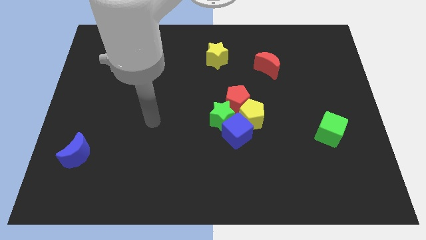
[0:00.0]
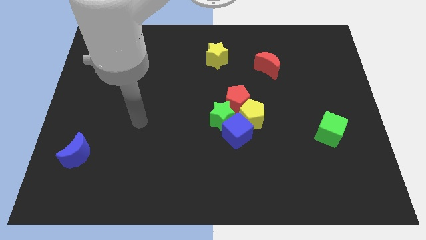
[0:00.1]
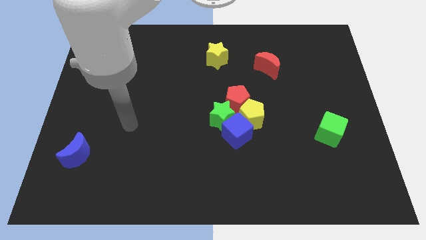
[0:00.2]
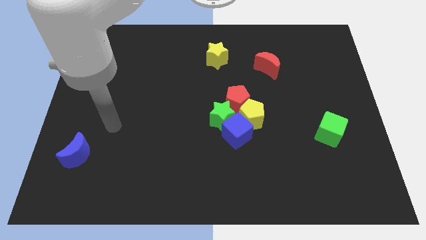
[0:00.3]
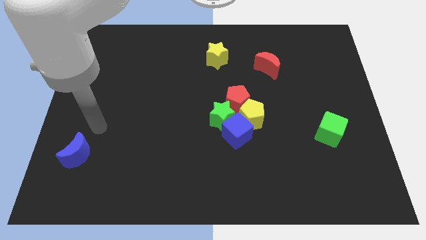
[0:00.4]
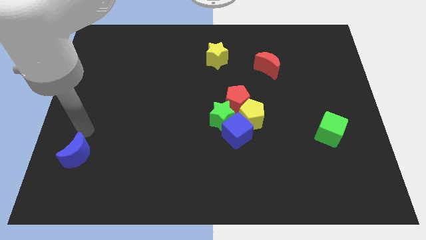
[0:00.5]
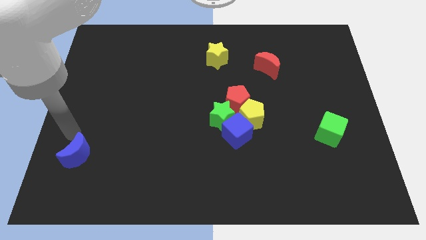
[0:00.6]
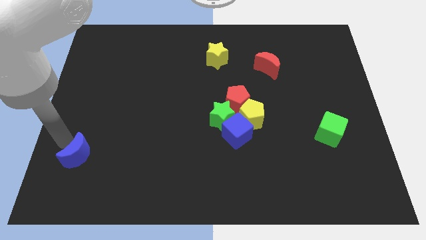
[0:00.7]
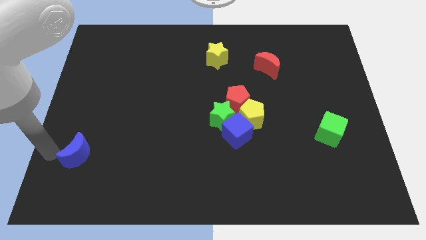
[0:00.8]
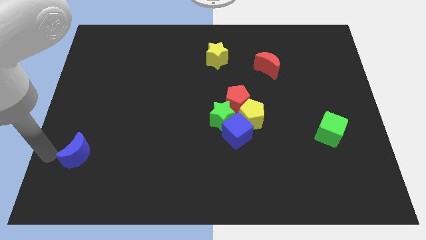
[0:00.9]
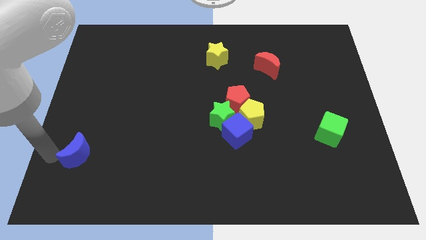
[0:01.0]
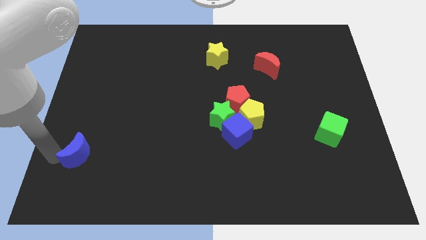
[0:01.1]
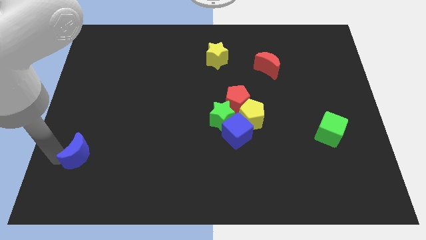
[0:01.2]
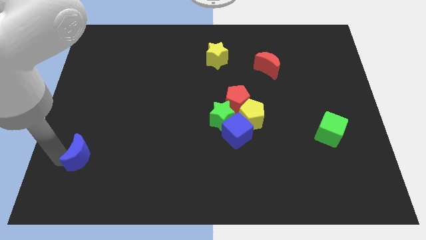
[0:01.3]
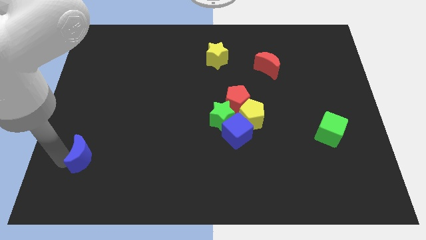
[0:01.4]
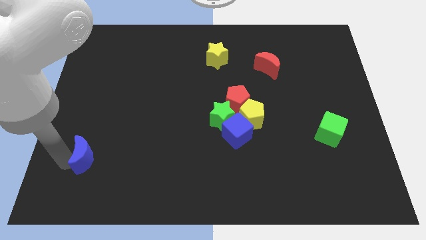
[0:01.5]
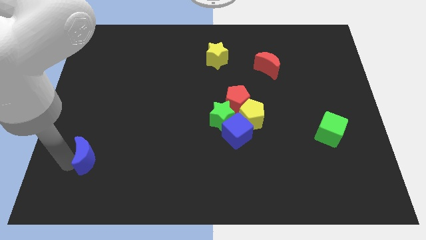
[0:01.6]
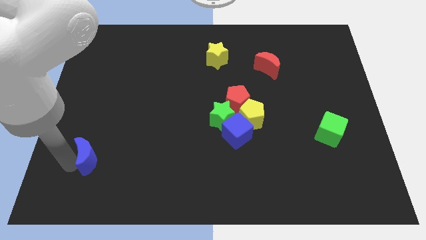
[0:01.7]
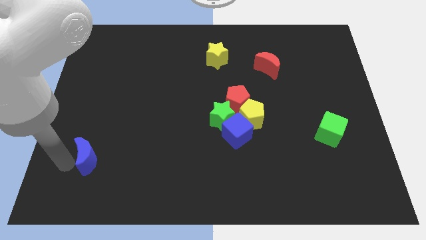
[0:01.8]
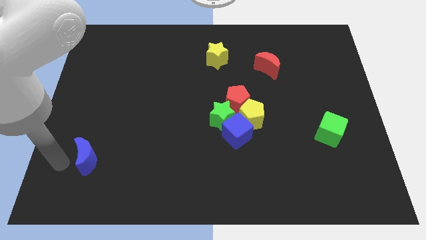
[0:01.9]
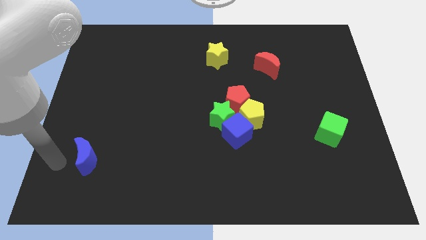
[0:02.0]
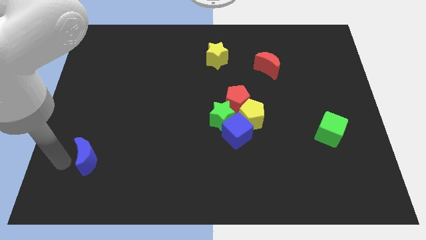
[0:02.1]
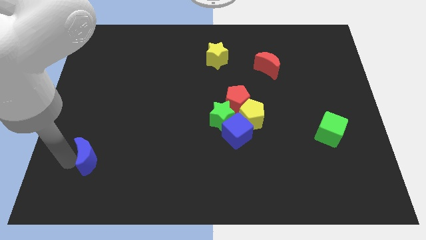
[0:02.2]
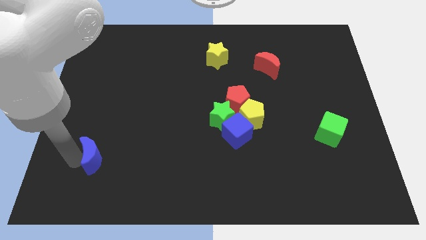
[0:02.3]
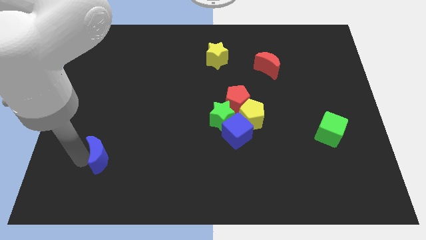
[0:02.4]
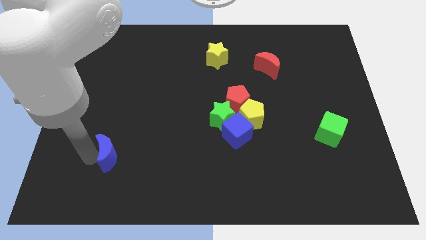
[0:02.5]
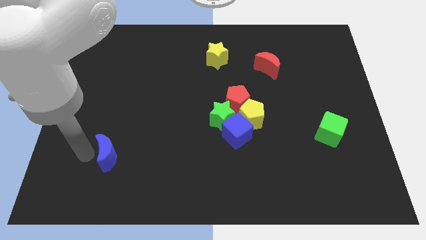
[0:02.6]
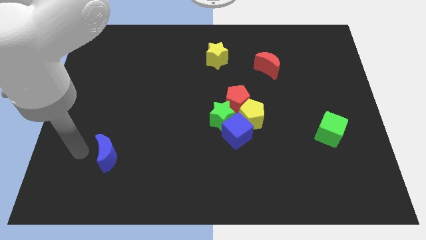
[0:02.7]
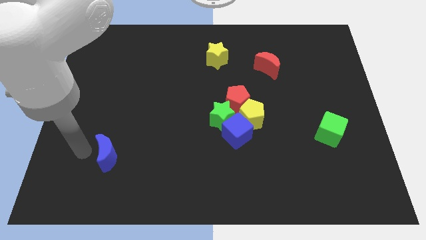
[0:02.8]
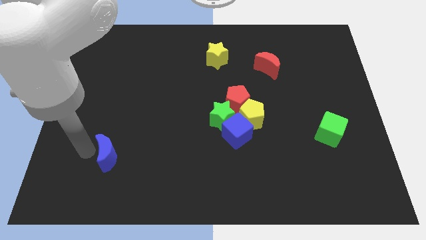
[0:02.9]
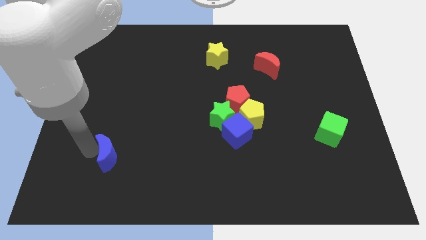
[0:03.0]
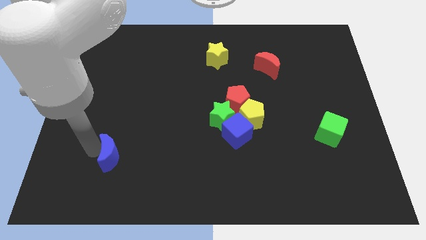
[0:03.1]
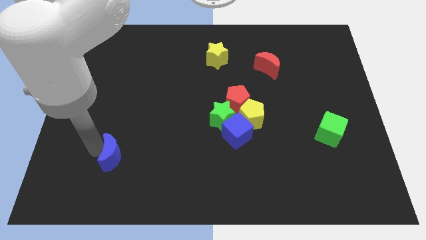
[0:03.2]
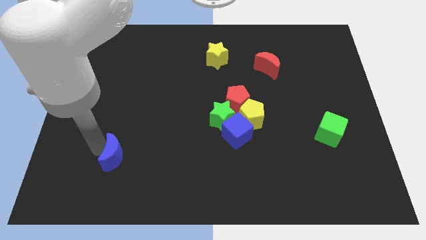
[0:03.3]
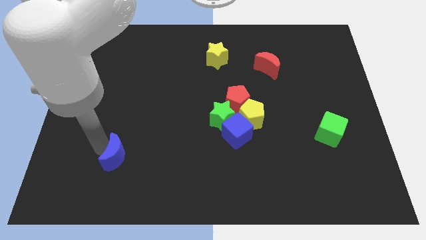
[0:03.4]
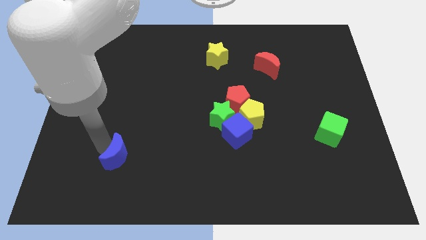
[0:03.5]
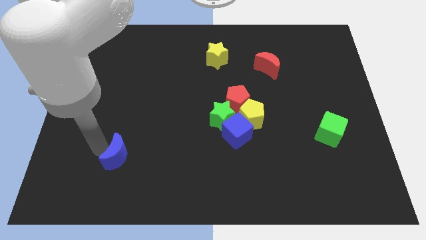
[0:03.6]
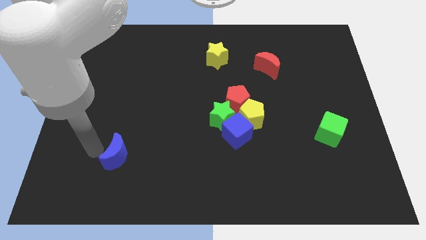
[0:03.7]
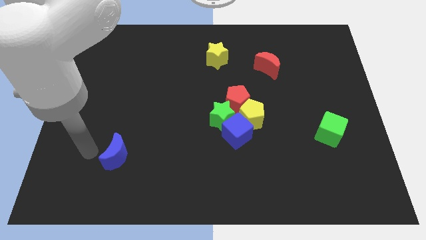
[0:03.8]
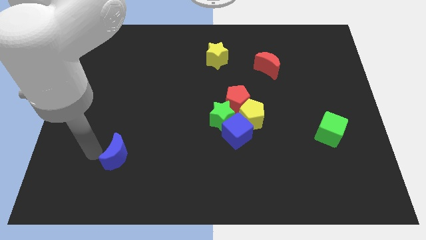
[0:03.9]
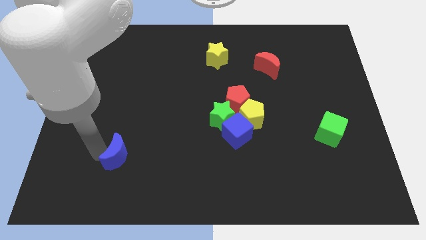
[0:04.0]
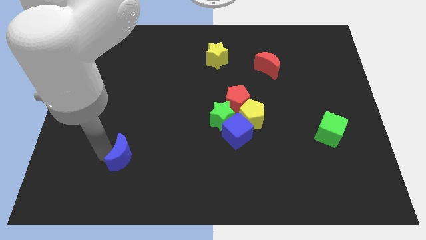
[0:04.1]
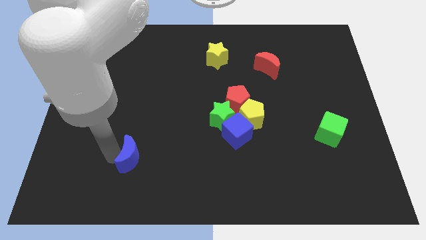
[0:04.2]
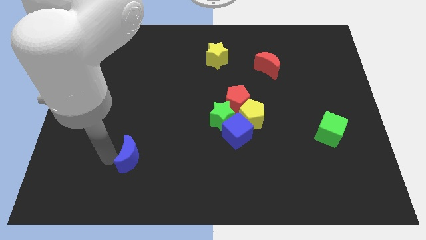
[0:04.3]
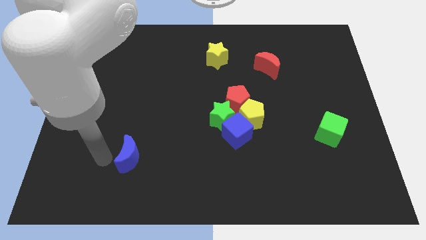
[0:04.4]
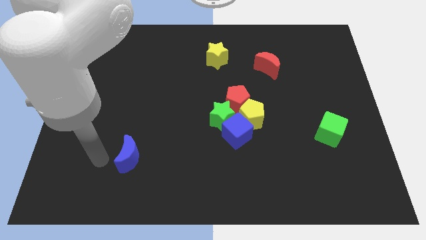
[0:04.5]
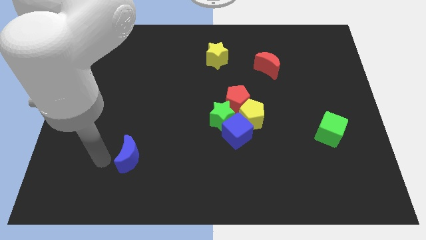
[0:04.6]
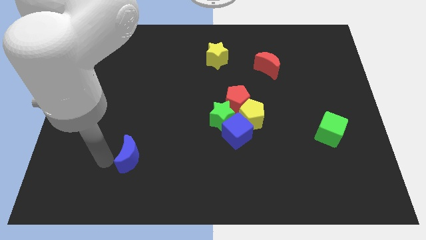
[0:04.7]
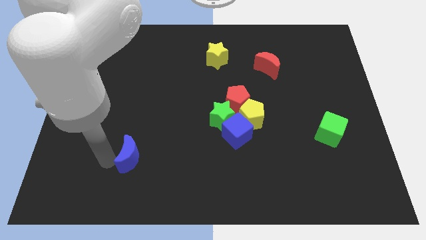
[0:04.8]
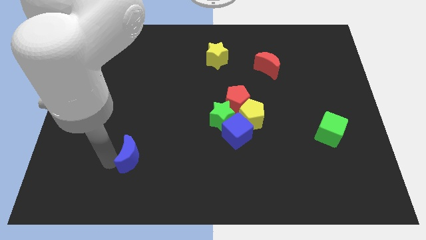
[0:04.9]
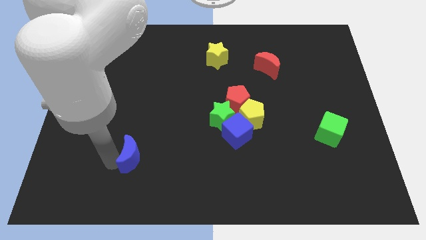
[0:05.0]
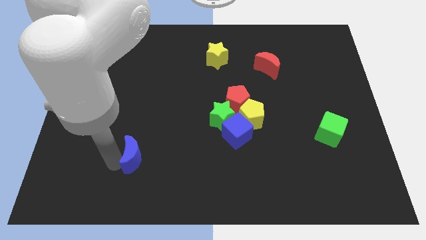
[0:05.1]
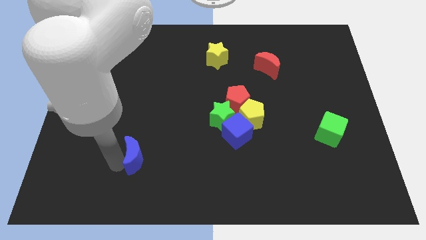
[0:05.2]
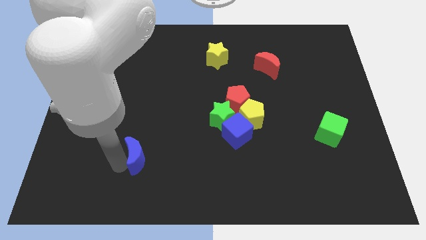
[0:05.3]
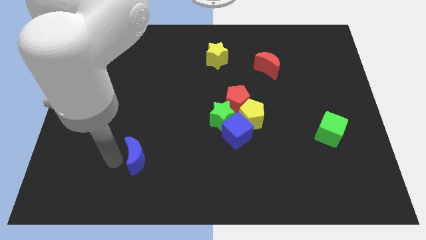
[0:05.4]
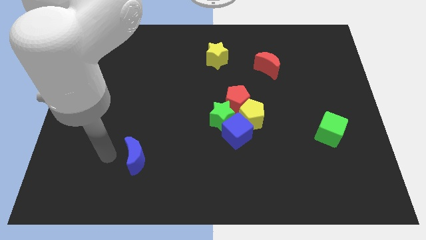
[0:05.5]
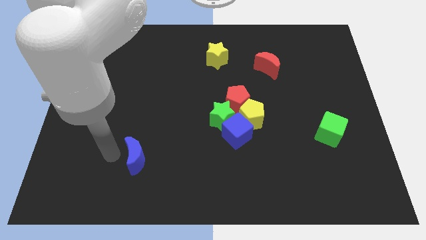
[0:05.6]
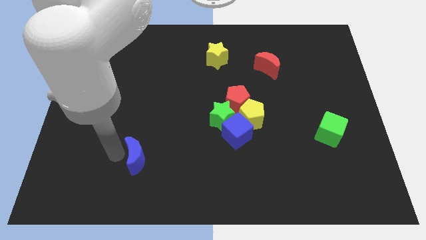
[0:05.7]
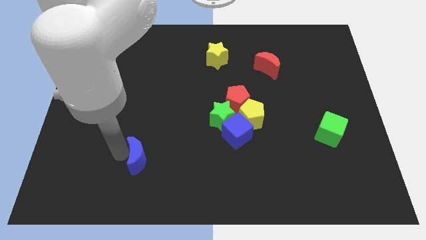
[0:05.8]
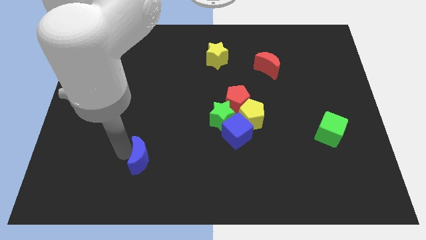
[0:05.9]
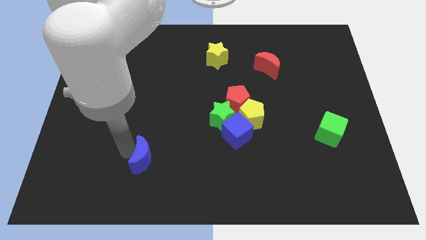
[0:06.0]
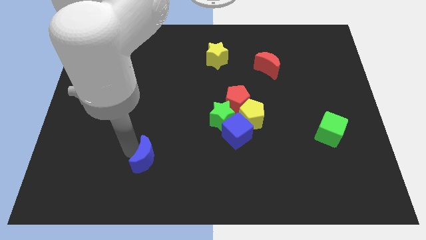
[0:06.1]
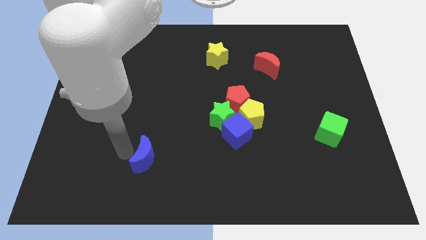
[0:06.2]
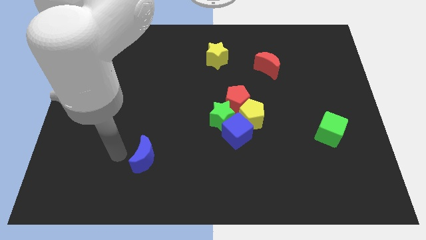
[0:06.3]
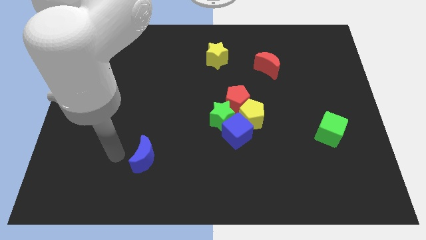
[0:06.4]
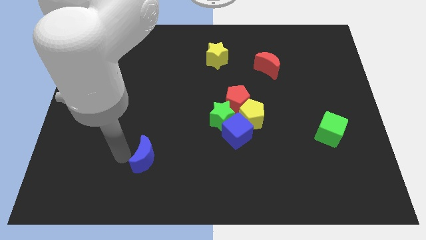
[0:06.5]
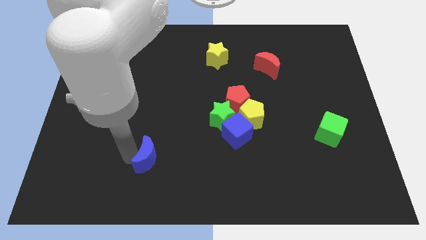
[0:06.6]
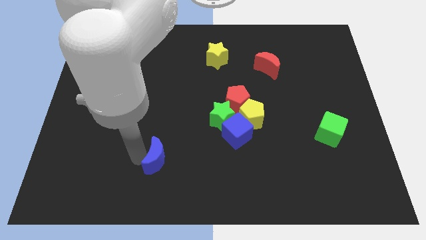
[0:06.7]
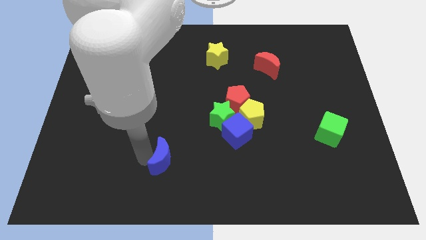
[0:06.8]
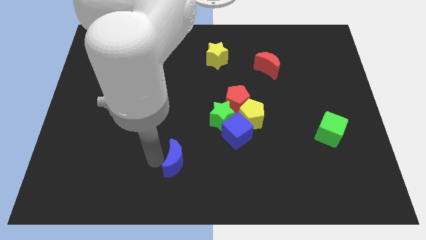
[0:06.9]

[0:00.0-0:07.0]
push the blue moon right

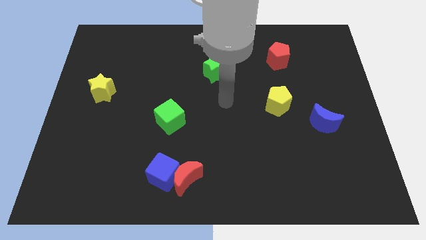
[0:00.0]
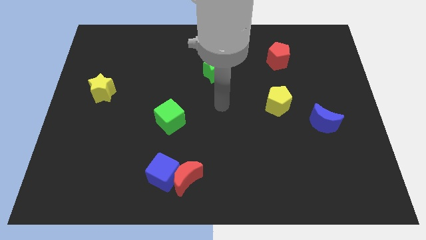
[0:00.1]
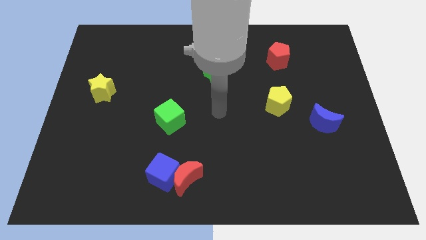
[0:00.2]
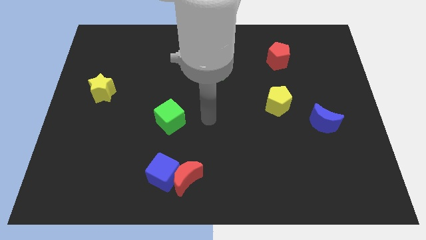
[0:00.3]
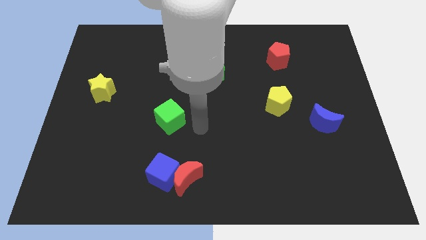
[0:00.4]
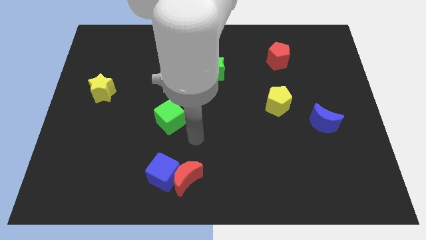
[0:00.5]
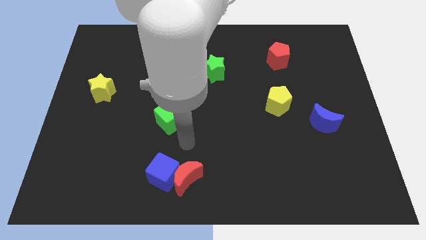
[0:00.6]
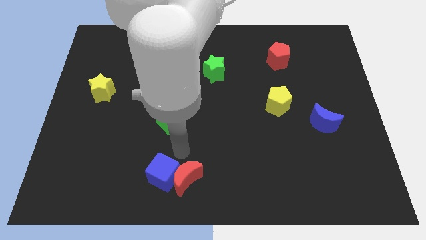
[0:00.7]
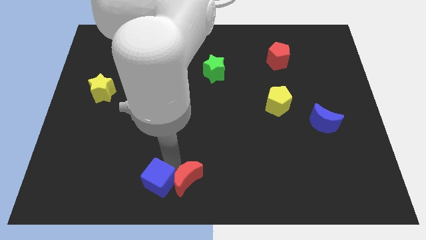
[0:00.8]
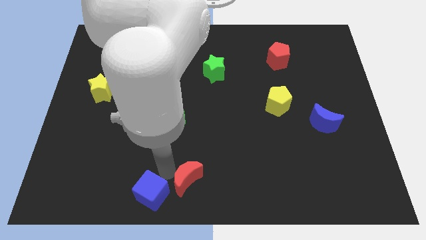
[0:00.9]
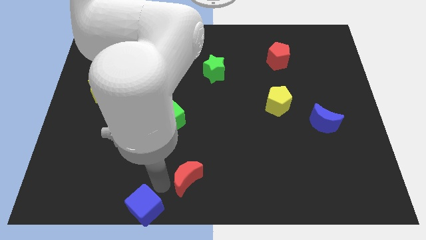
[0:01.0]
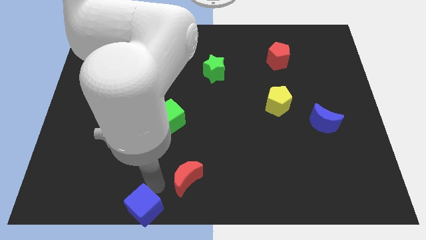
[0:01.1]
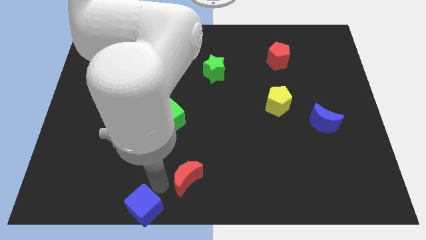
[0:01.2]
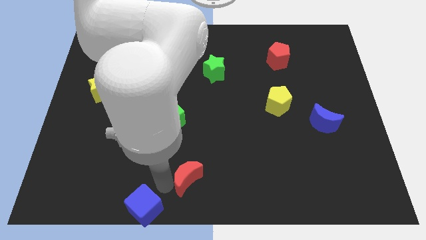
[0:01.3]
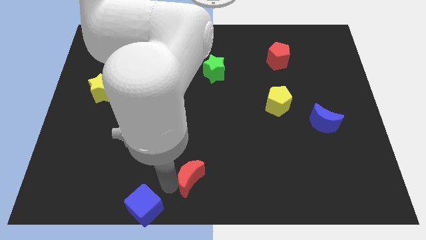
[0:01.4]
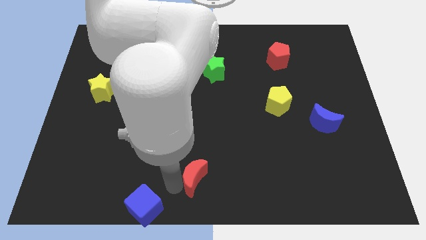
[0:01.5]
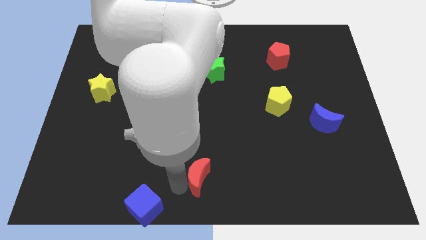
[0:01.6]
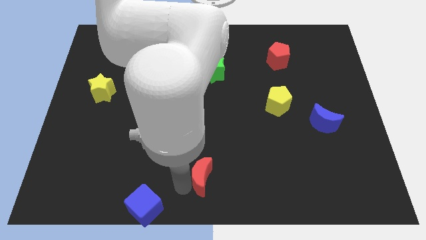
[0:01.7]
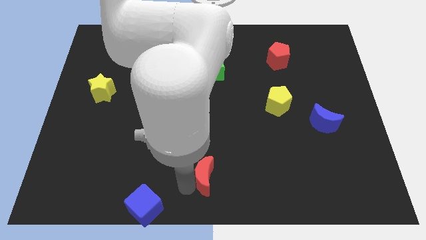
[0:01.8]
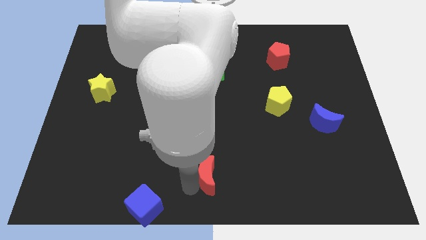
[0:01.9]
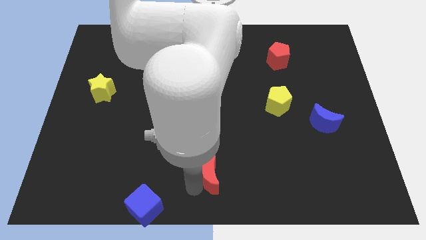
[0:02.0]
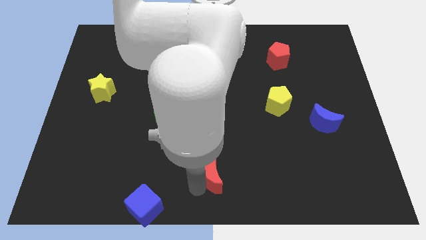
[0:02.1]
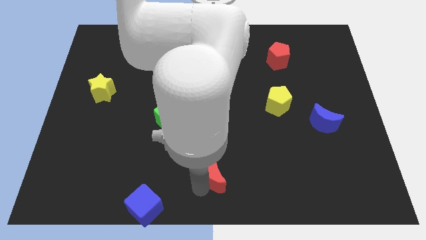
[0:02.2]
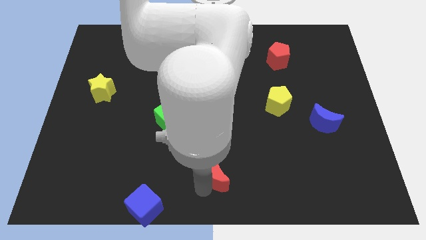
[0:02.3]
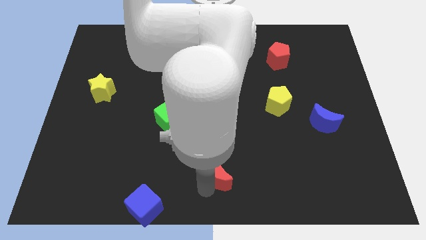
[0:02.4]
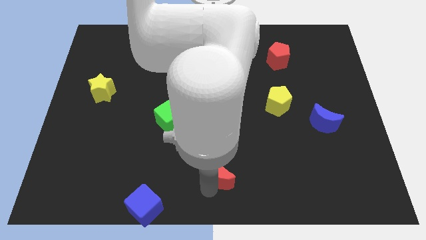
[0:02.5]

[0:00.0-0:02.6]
slide the red moon to the right a little bit
